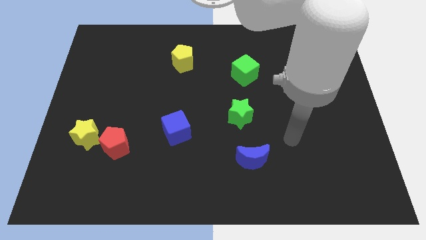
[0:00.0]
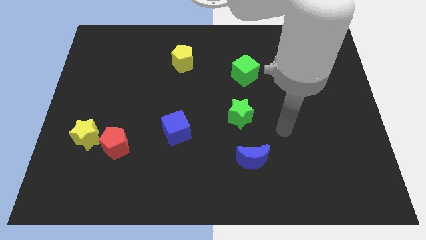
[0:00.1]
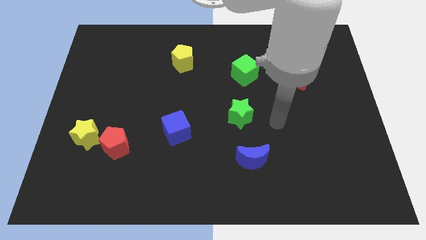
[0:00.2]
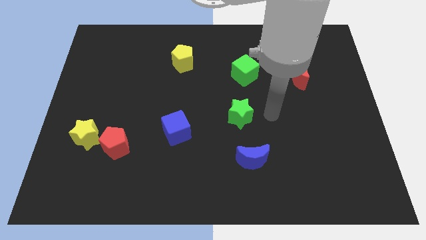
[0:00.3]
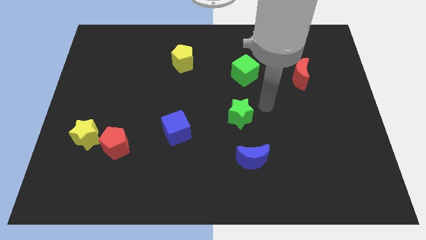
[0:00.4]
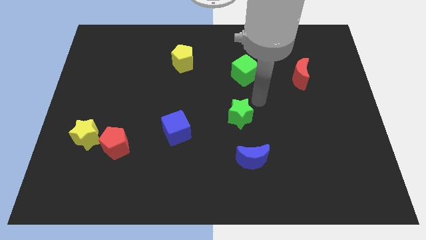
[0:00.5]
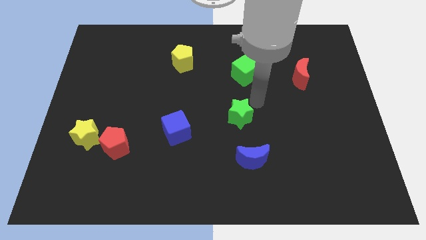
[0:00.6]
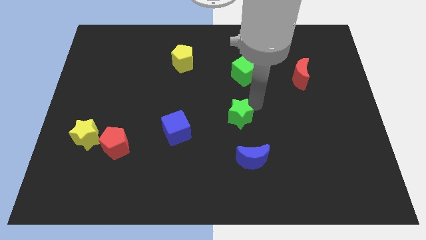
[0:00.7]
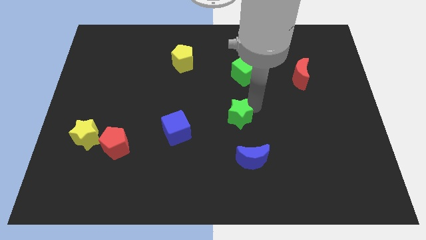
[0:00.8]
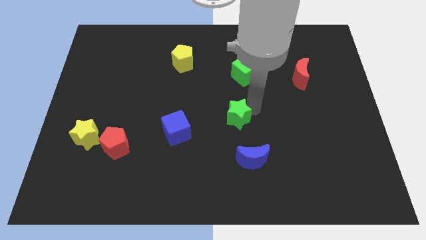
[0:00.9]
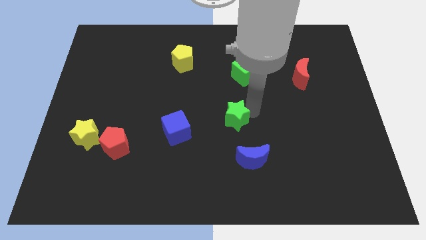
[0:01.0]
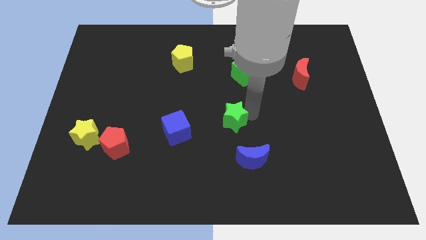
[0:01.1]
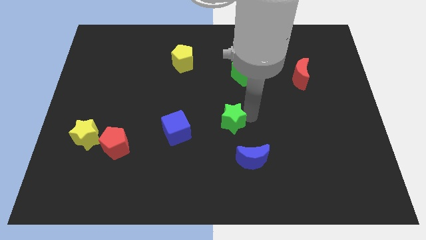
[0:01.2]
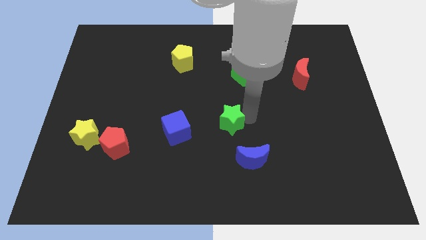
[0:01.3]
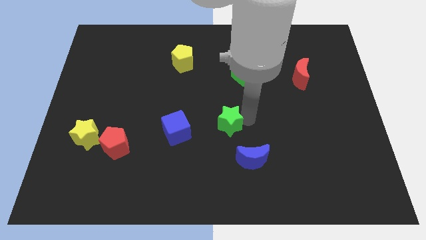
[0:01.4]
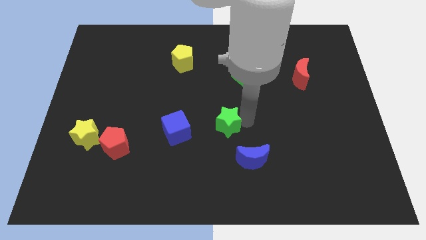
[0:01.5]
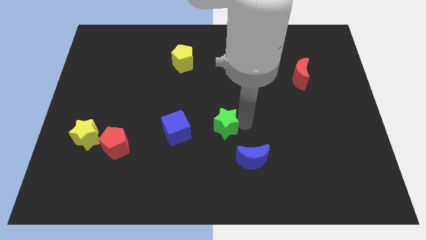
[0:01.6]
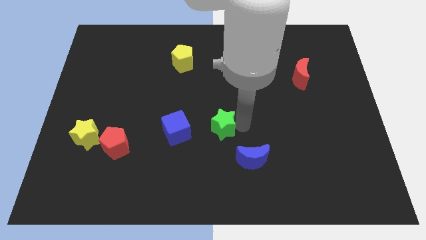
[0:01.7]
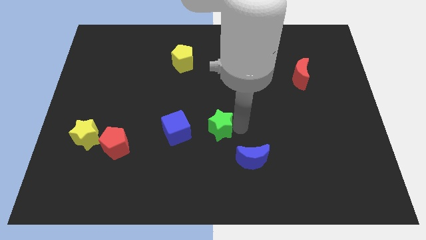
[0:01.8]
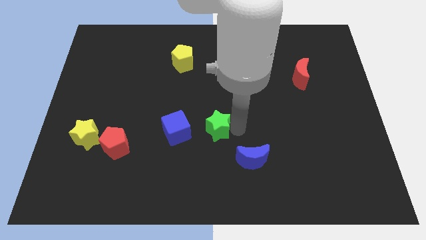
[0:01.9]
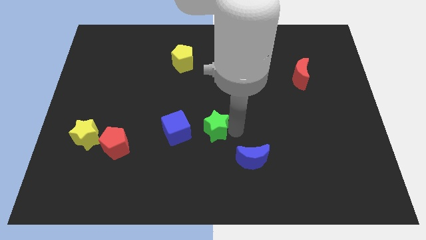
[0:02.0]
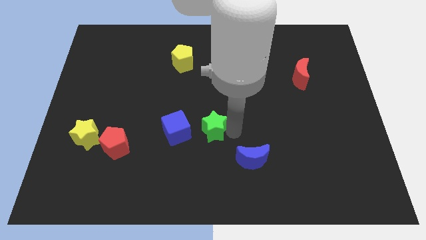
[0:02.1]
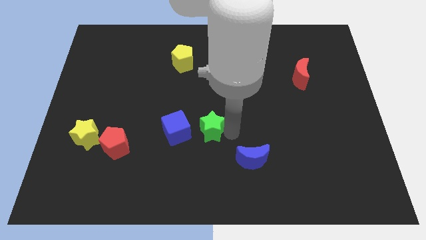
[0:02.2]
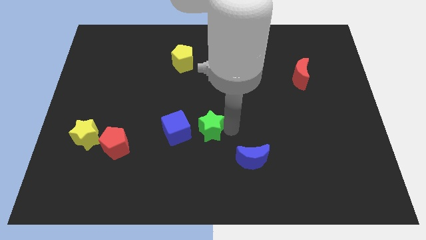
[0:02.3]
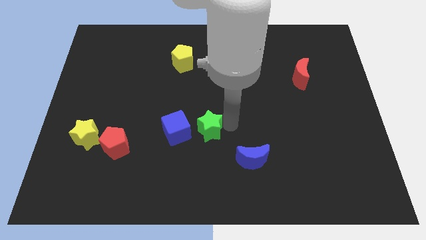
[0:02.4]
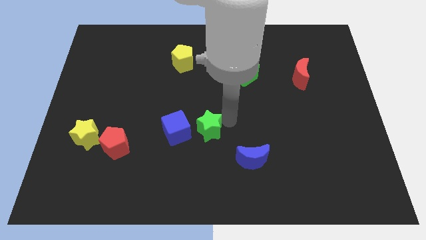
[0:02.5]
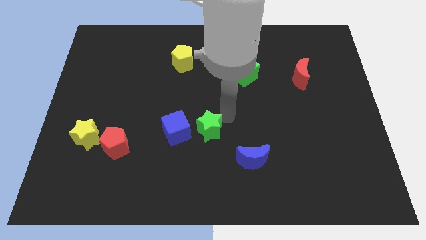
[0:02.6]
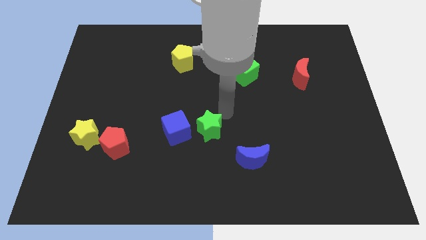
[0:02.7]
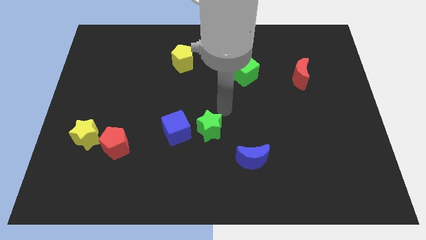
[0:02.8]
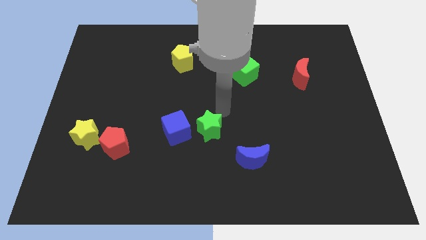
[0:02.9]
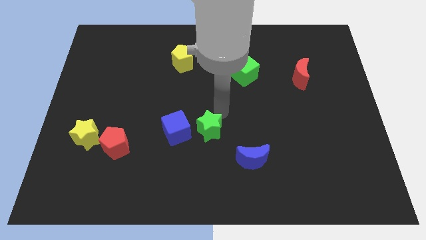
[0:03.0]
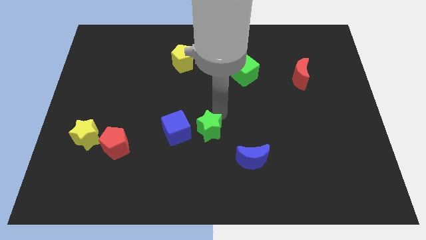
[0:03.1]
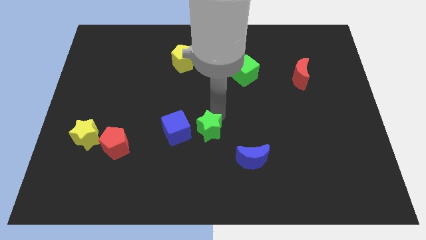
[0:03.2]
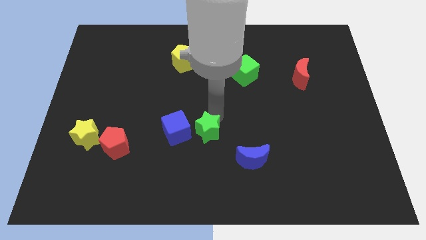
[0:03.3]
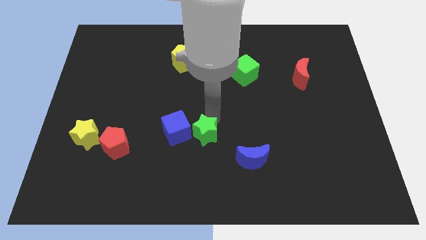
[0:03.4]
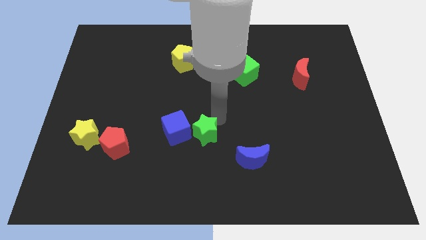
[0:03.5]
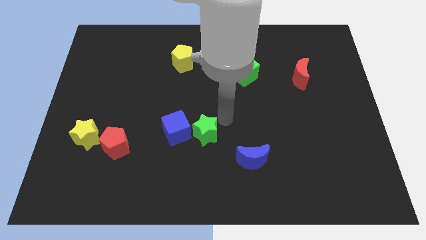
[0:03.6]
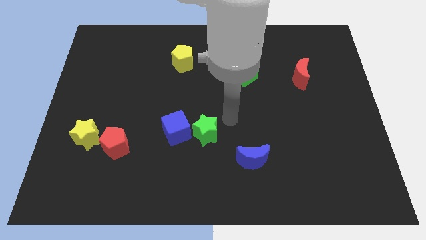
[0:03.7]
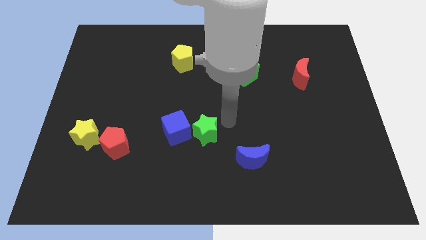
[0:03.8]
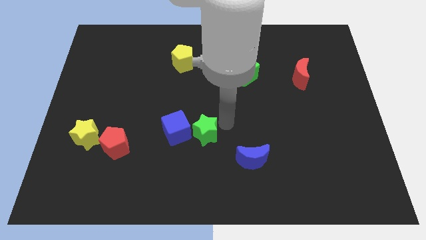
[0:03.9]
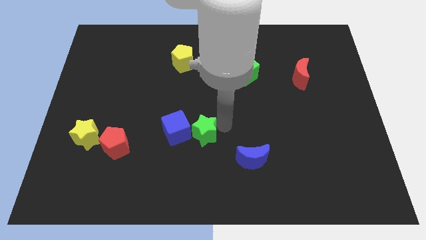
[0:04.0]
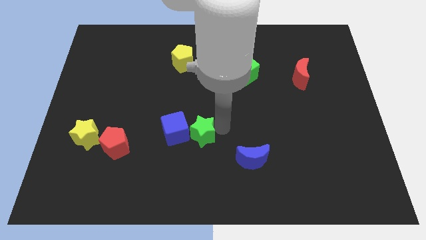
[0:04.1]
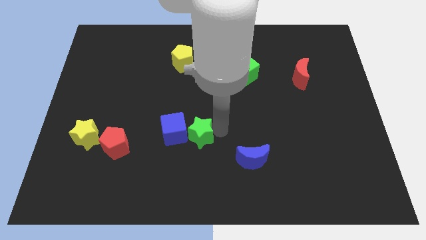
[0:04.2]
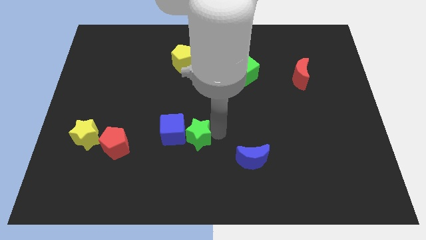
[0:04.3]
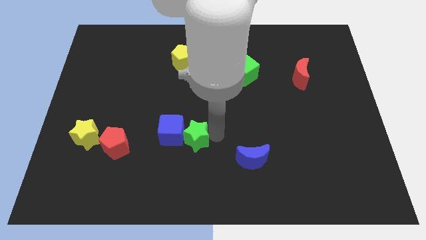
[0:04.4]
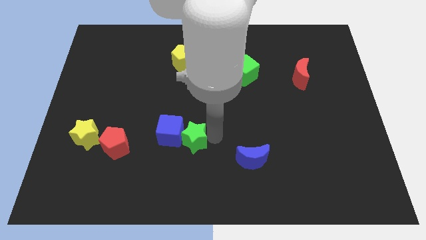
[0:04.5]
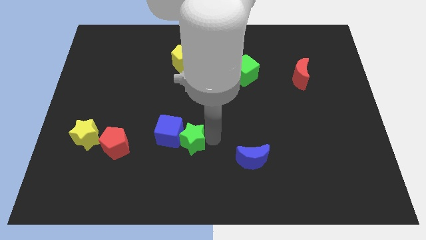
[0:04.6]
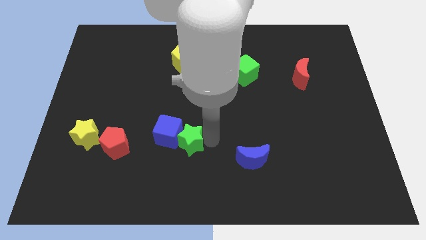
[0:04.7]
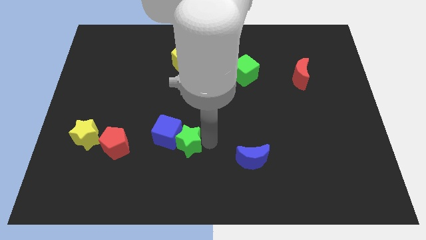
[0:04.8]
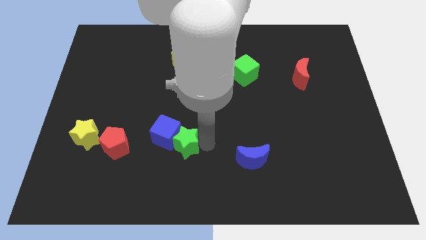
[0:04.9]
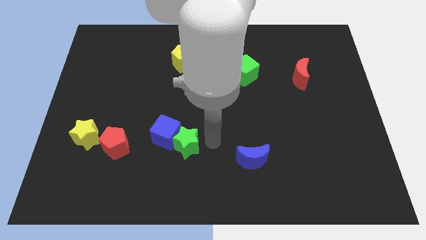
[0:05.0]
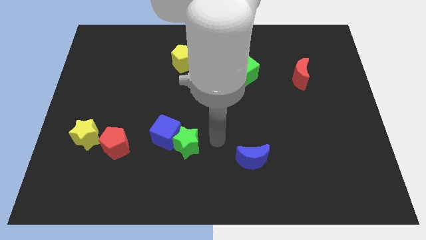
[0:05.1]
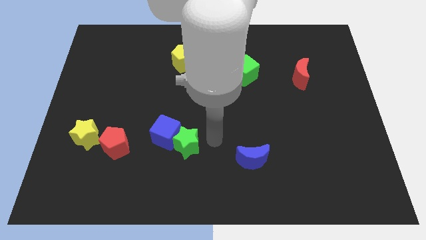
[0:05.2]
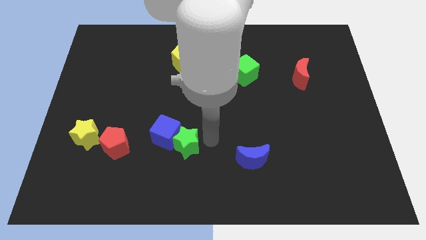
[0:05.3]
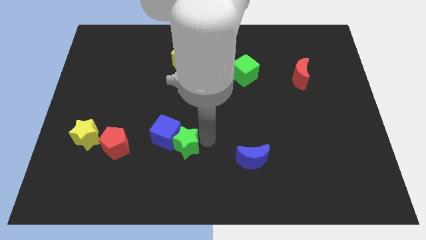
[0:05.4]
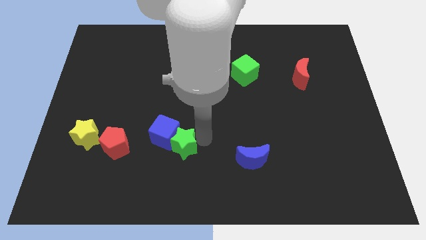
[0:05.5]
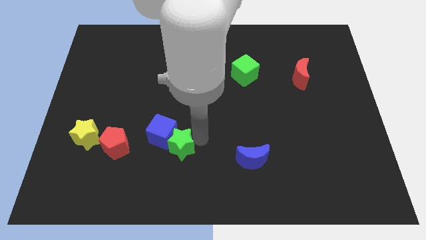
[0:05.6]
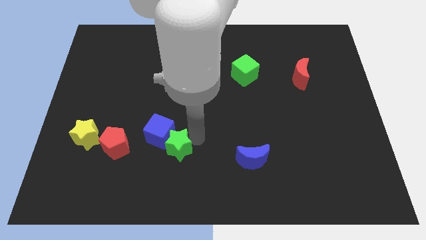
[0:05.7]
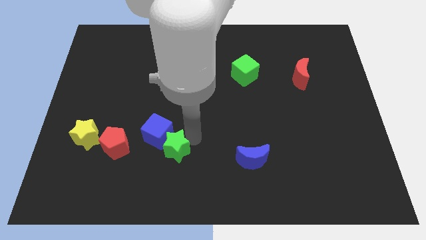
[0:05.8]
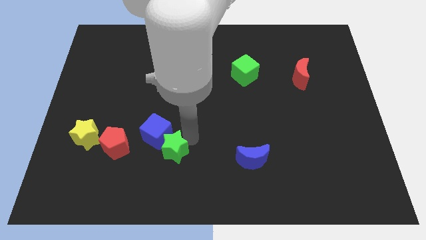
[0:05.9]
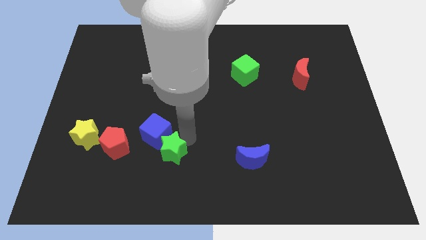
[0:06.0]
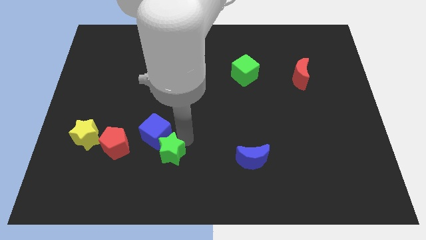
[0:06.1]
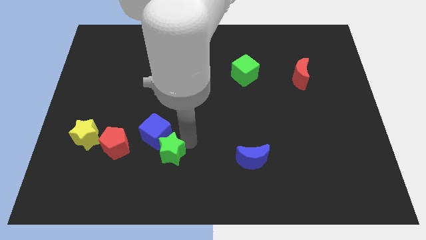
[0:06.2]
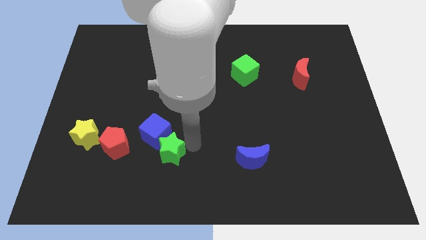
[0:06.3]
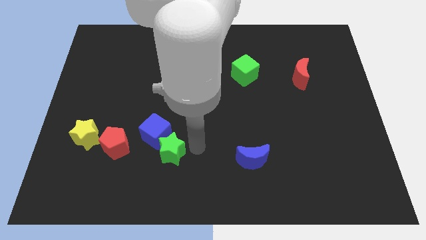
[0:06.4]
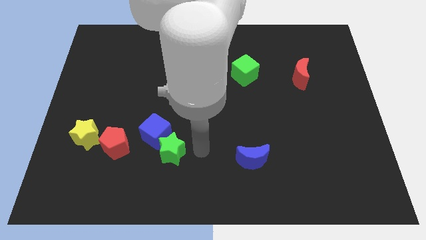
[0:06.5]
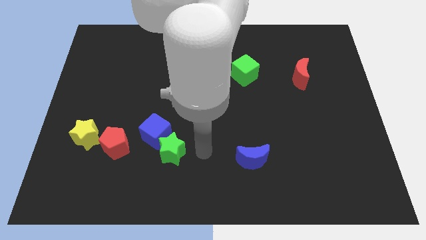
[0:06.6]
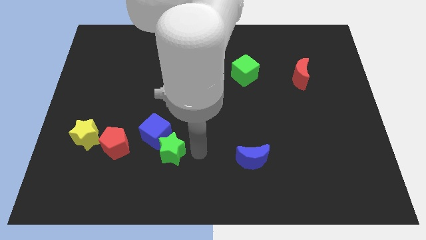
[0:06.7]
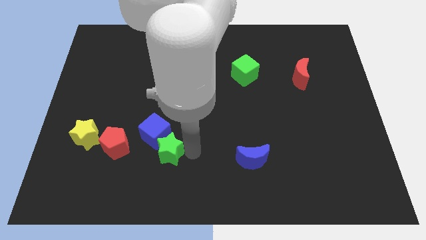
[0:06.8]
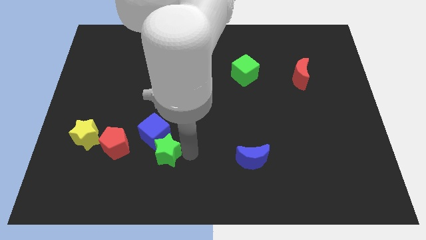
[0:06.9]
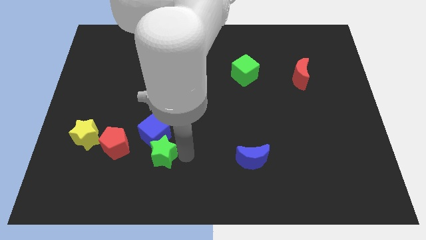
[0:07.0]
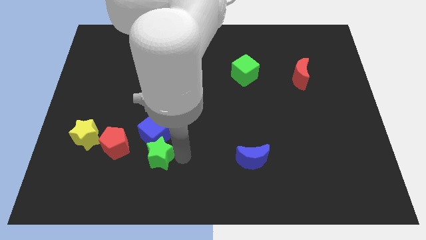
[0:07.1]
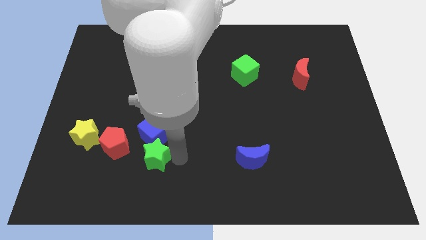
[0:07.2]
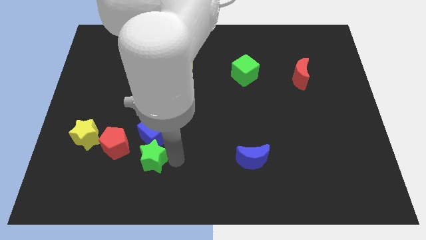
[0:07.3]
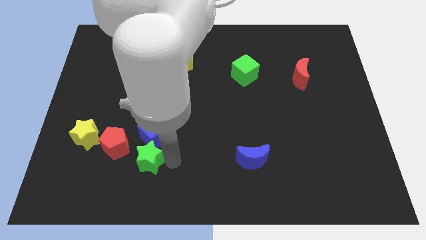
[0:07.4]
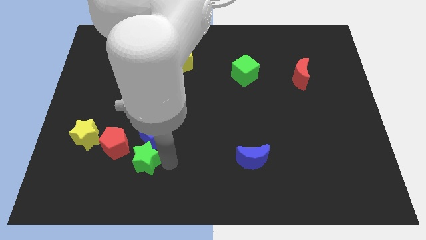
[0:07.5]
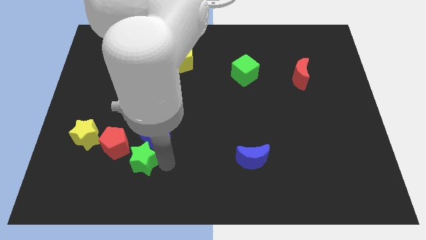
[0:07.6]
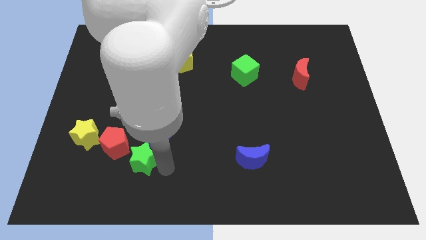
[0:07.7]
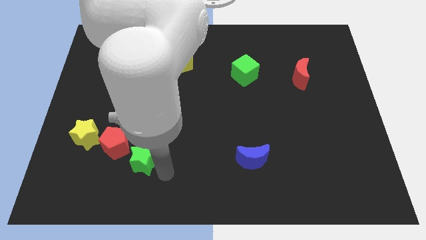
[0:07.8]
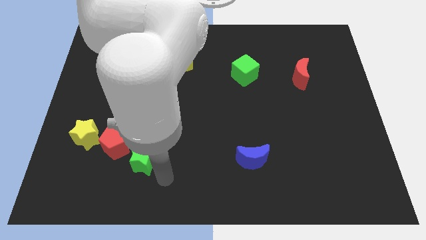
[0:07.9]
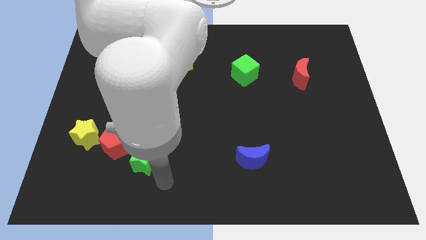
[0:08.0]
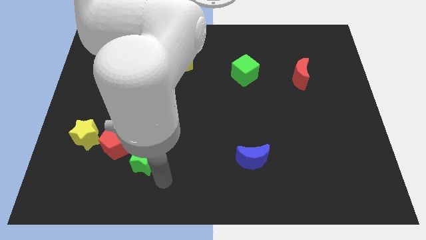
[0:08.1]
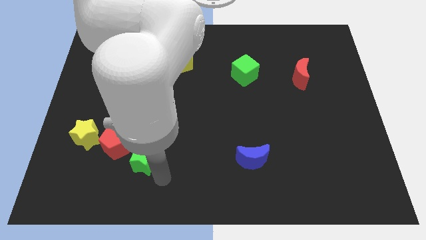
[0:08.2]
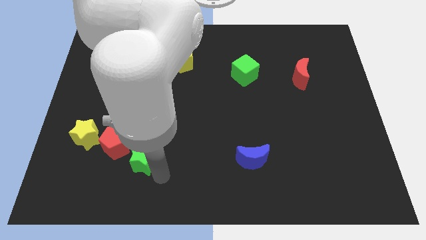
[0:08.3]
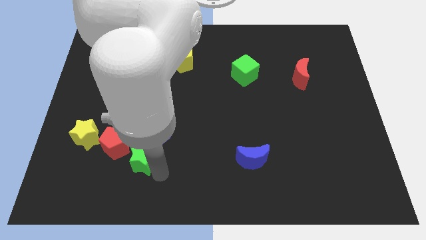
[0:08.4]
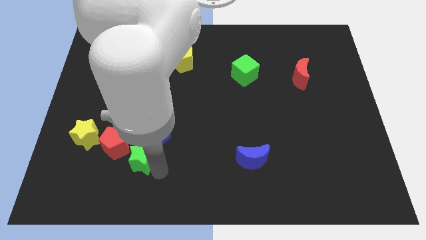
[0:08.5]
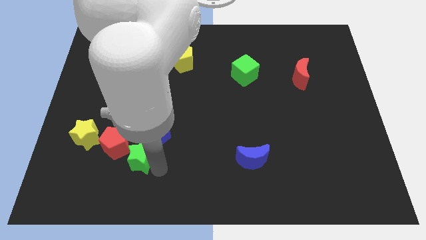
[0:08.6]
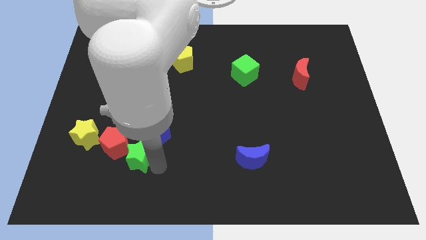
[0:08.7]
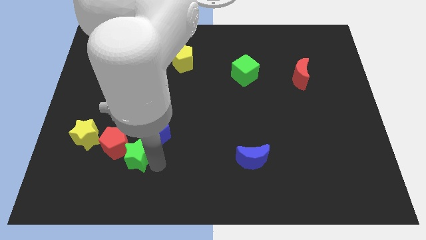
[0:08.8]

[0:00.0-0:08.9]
slide the green star close to the red pentagon
